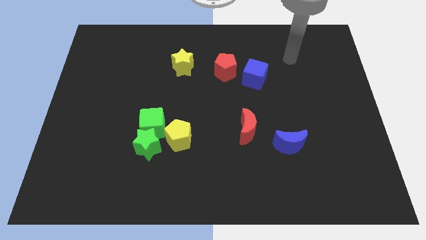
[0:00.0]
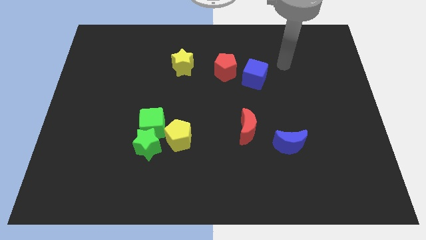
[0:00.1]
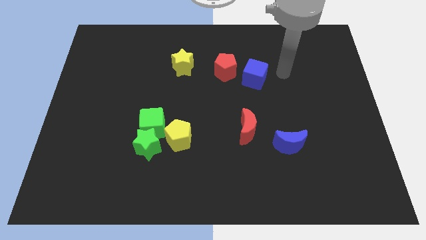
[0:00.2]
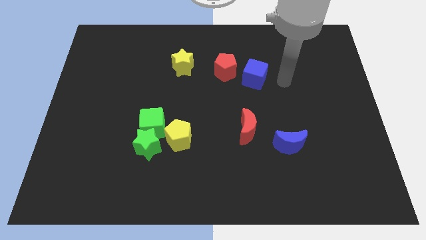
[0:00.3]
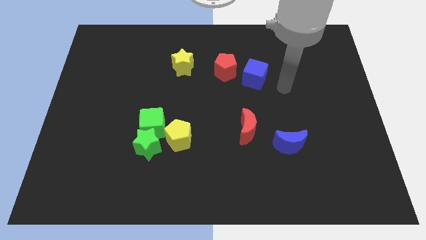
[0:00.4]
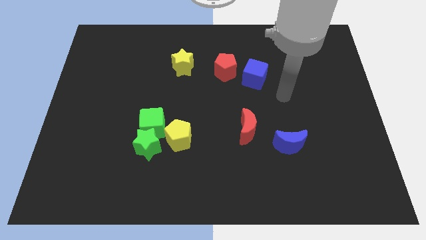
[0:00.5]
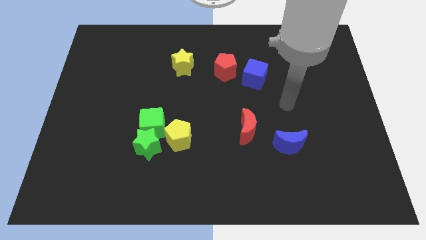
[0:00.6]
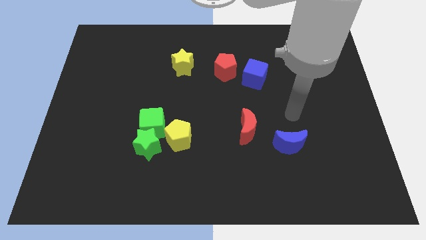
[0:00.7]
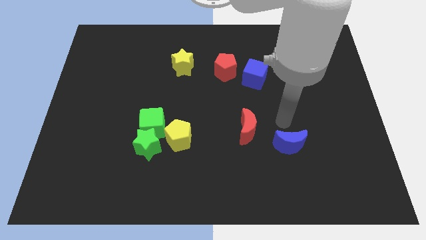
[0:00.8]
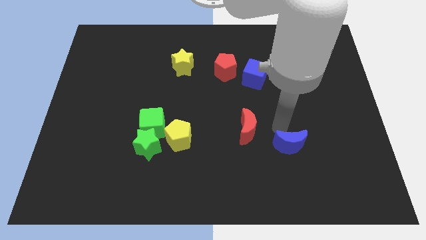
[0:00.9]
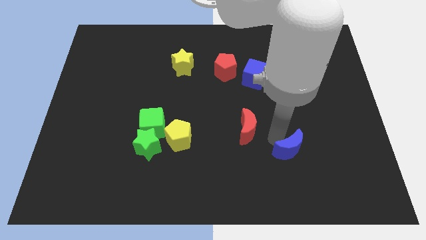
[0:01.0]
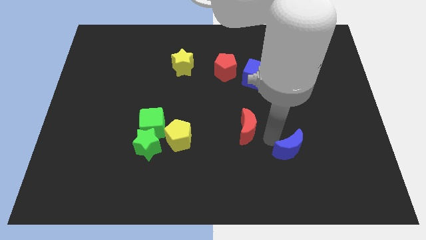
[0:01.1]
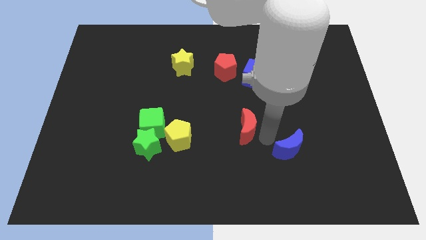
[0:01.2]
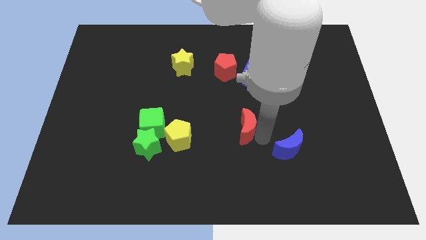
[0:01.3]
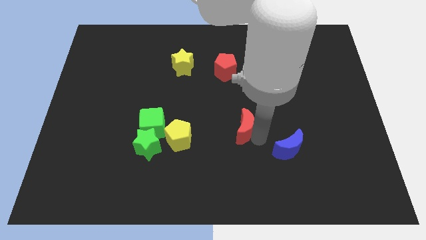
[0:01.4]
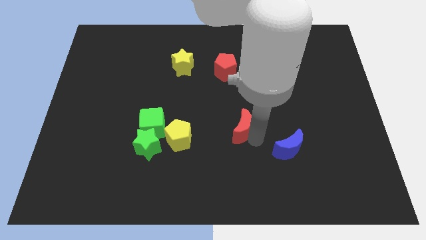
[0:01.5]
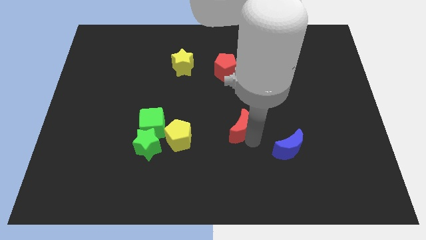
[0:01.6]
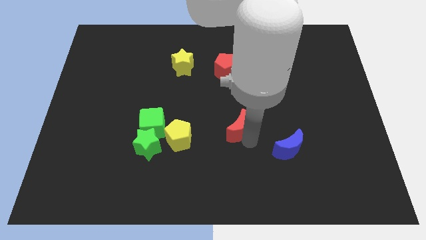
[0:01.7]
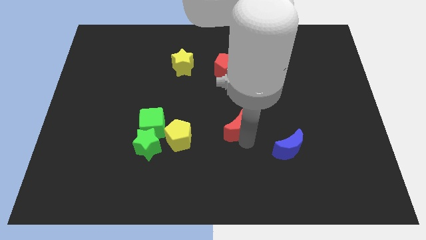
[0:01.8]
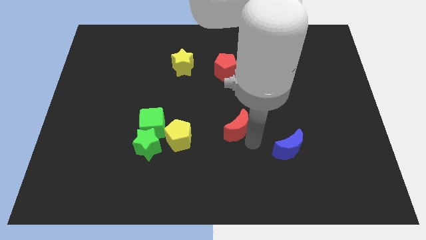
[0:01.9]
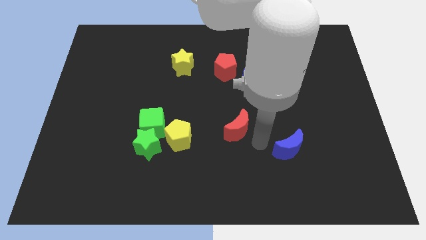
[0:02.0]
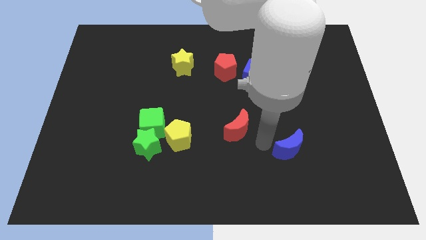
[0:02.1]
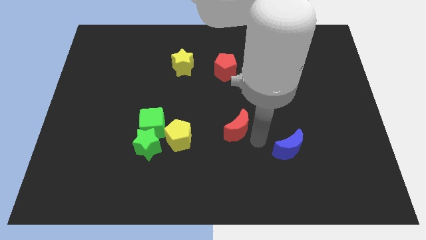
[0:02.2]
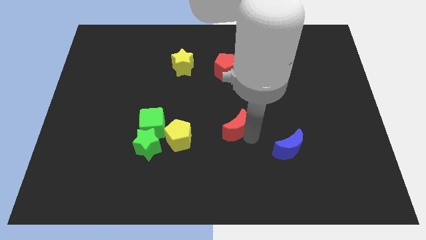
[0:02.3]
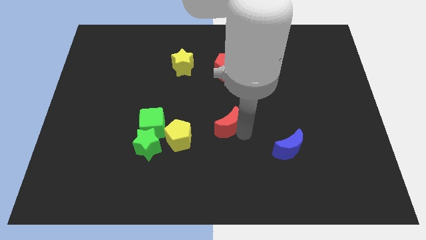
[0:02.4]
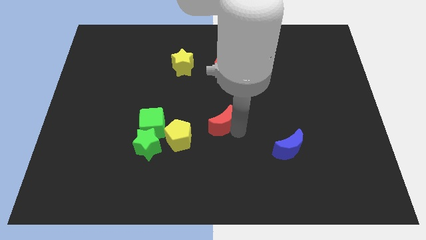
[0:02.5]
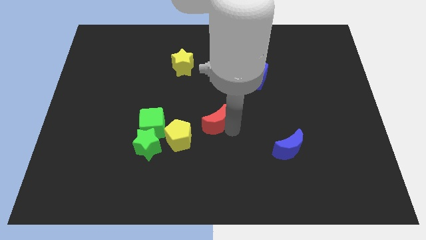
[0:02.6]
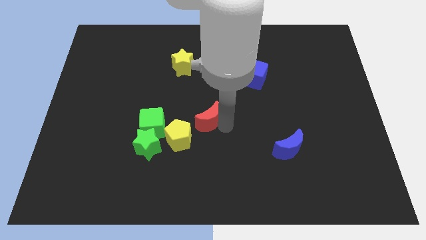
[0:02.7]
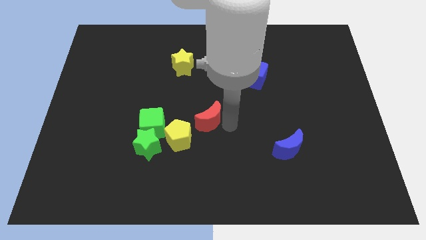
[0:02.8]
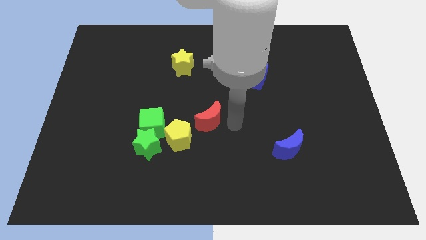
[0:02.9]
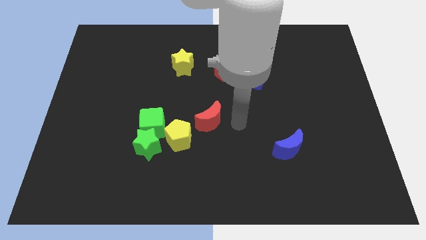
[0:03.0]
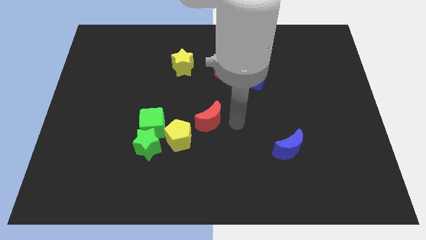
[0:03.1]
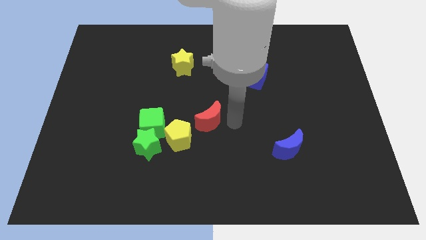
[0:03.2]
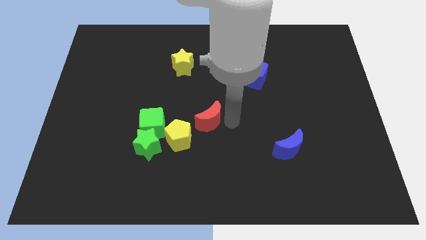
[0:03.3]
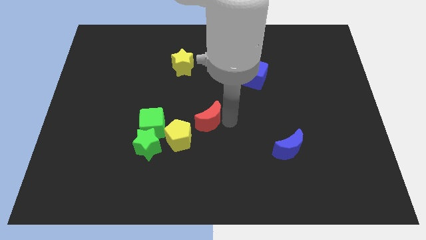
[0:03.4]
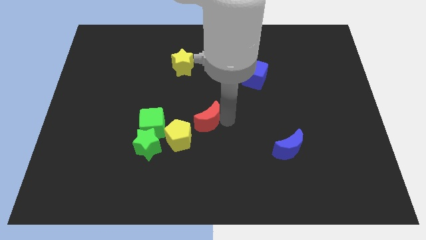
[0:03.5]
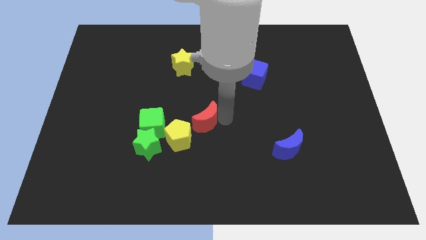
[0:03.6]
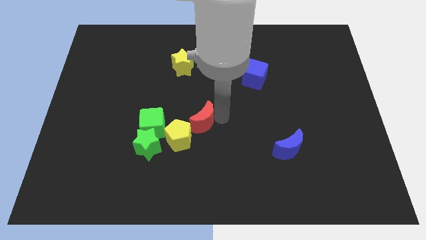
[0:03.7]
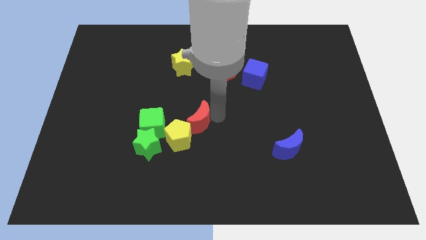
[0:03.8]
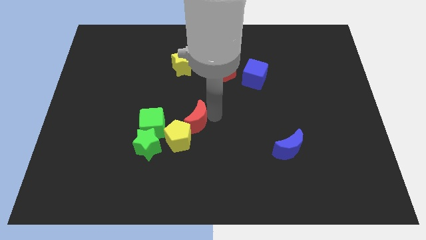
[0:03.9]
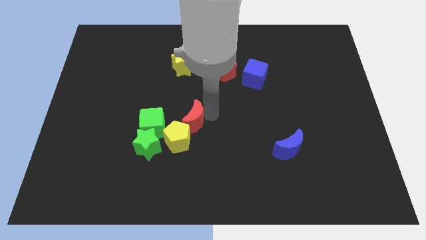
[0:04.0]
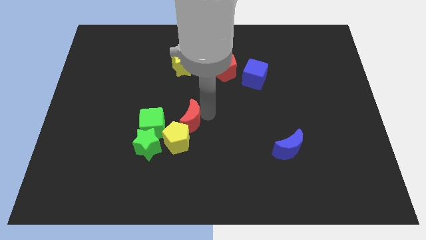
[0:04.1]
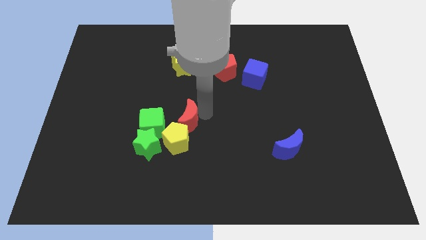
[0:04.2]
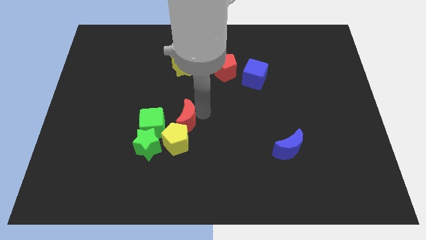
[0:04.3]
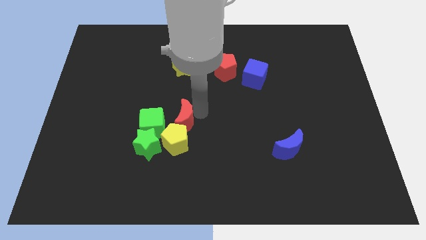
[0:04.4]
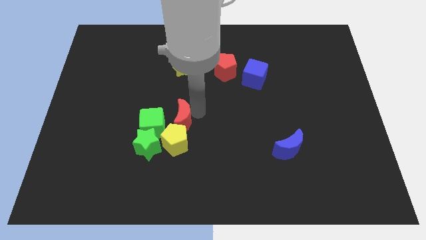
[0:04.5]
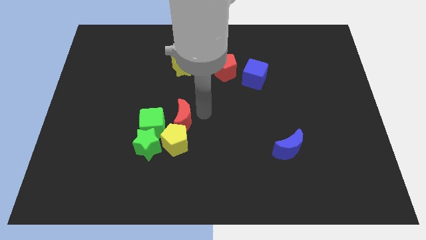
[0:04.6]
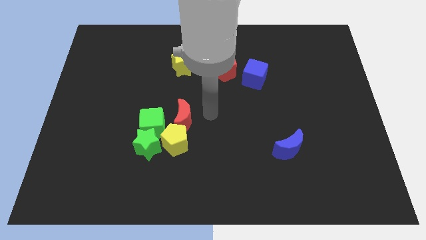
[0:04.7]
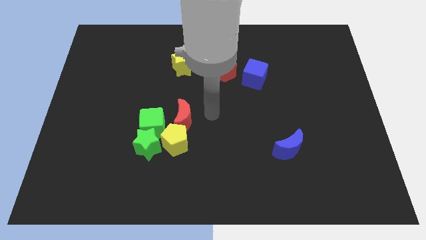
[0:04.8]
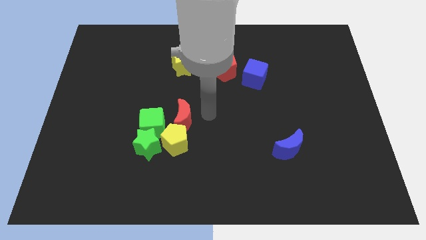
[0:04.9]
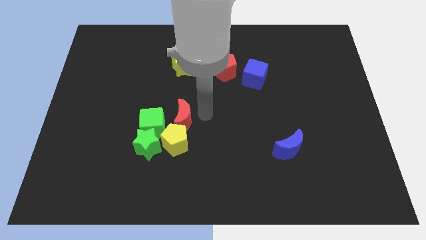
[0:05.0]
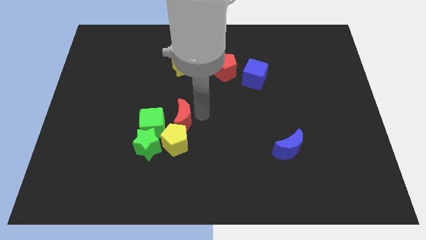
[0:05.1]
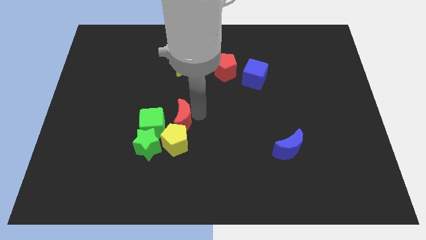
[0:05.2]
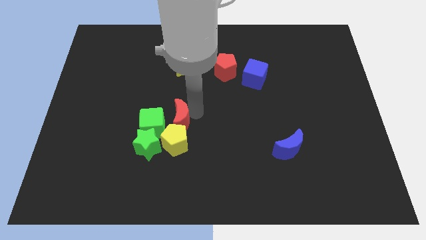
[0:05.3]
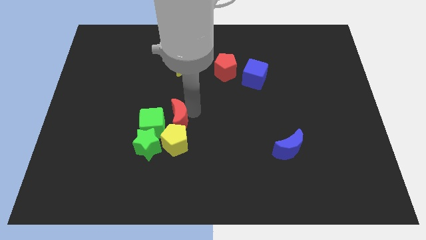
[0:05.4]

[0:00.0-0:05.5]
push the red moon towards the green cube

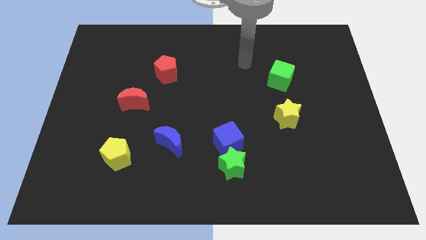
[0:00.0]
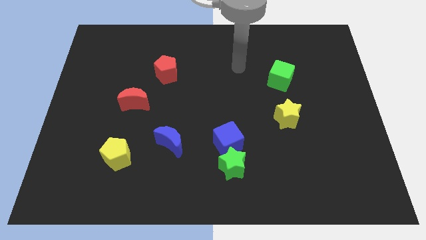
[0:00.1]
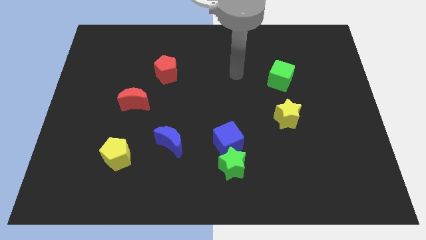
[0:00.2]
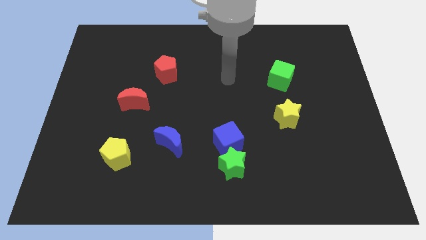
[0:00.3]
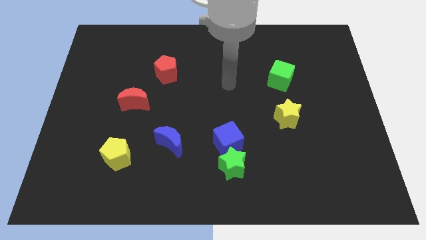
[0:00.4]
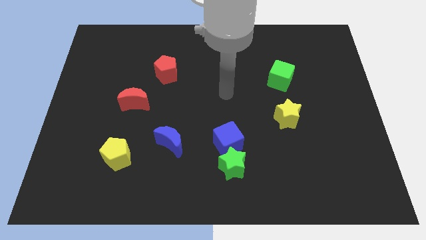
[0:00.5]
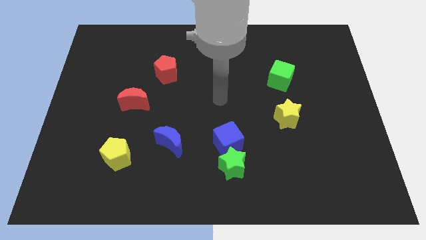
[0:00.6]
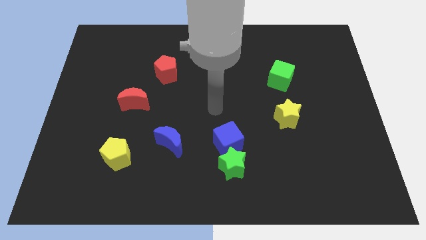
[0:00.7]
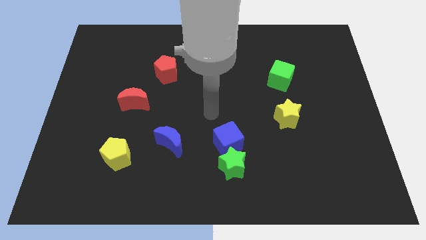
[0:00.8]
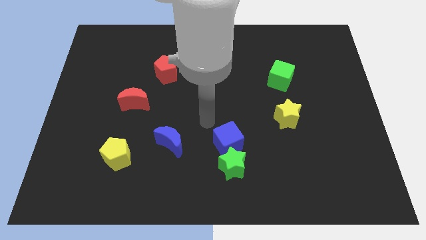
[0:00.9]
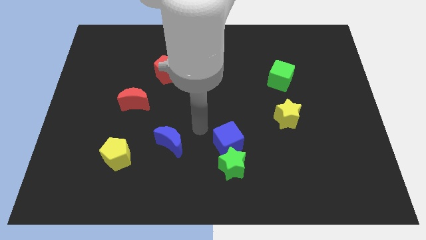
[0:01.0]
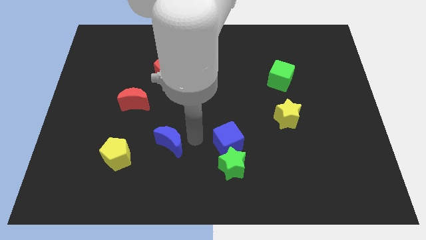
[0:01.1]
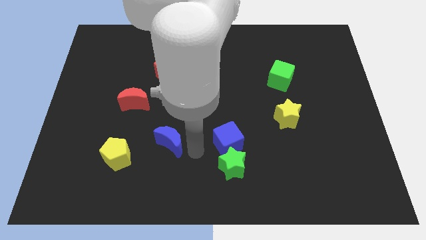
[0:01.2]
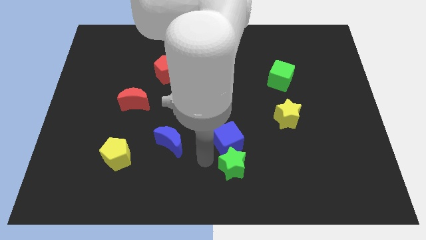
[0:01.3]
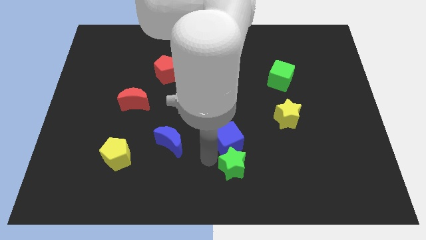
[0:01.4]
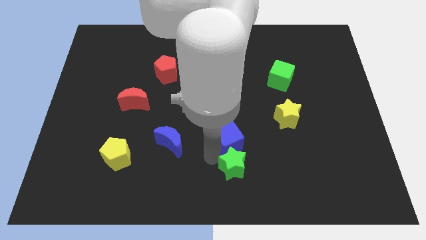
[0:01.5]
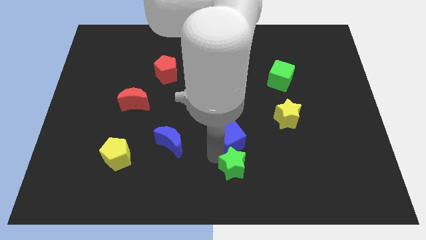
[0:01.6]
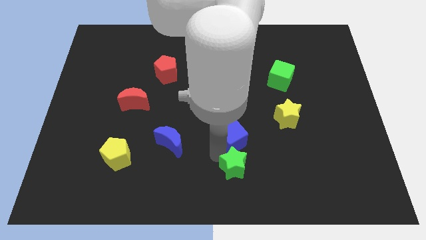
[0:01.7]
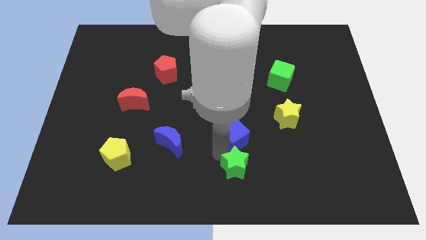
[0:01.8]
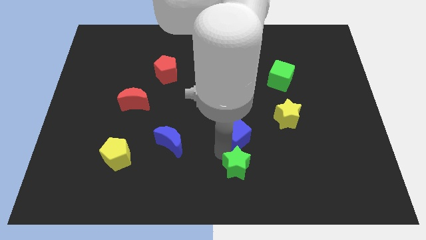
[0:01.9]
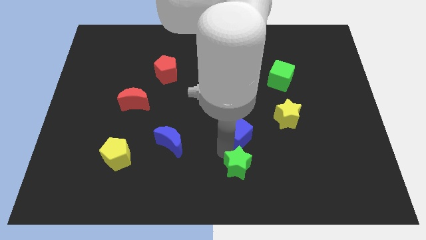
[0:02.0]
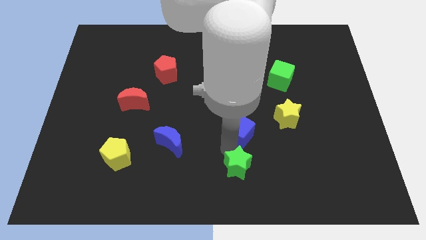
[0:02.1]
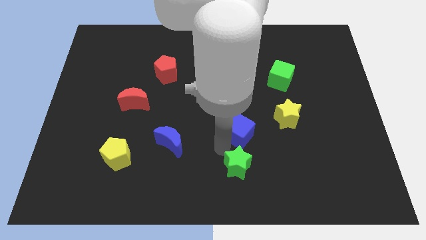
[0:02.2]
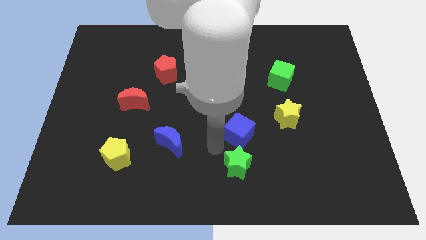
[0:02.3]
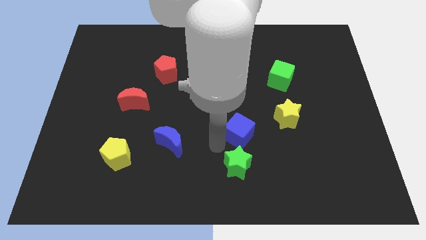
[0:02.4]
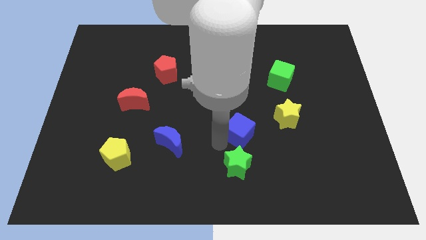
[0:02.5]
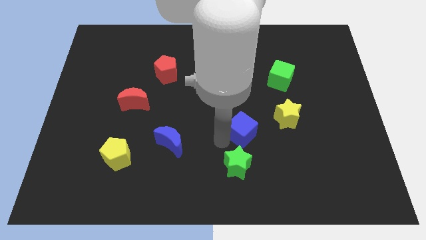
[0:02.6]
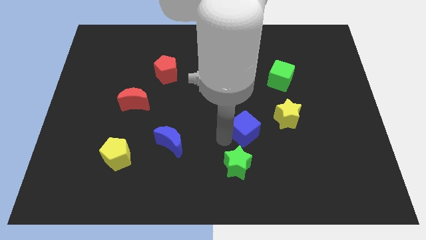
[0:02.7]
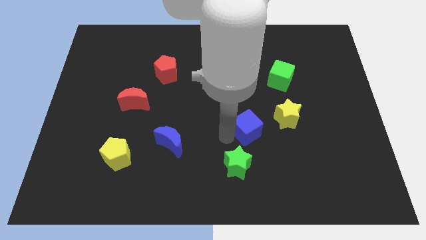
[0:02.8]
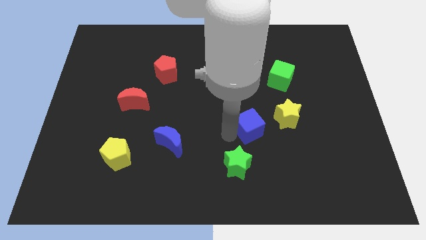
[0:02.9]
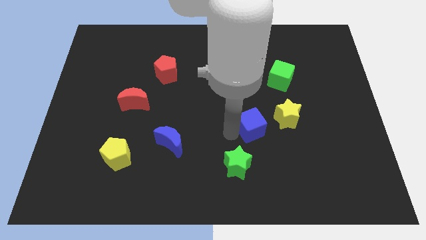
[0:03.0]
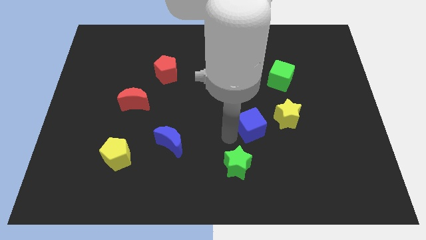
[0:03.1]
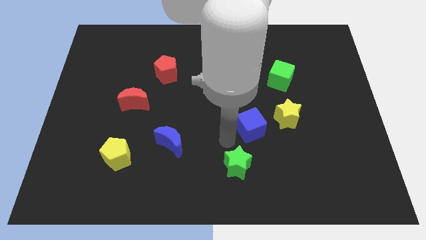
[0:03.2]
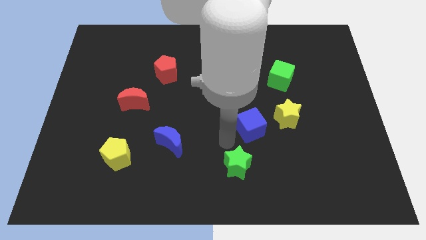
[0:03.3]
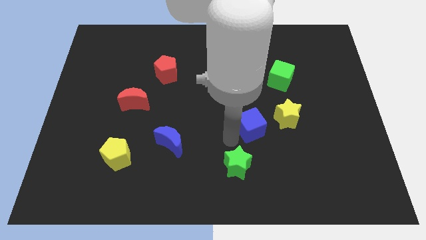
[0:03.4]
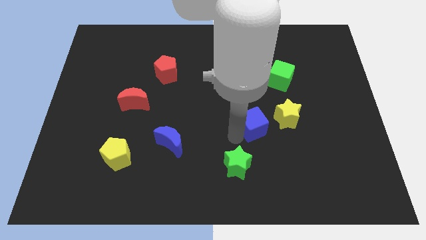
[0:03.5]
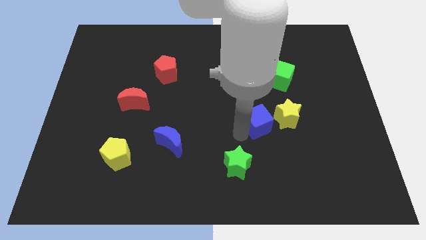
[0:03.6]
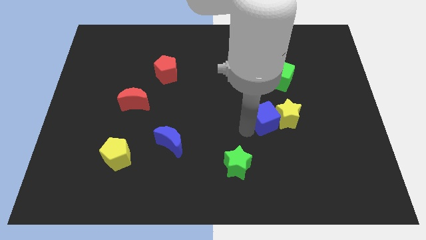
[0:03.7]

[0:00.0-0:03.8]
push the blue cube close to the yellow star
